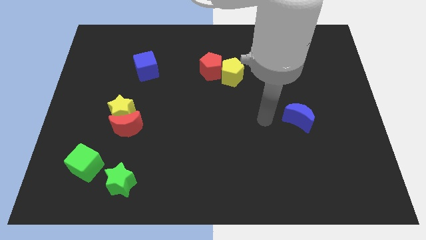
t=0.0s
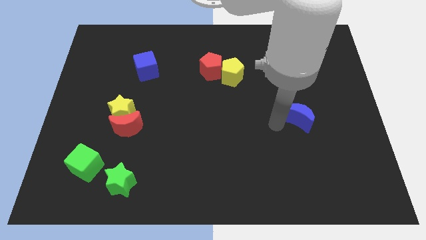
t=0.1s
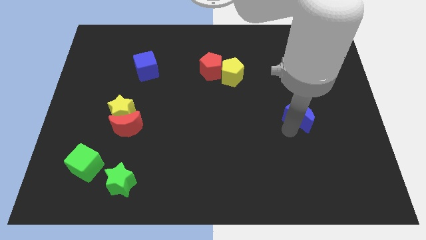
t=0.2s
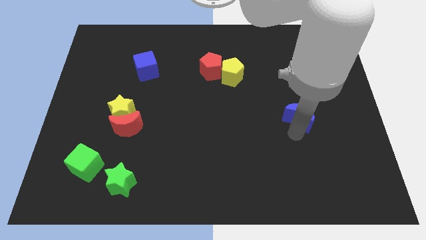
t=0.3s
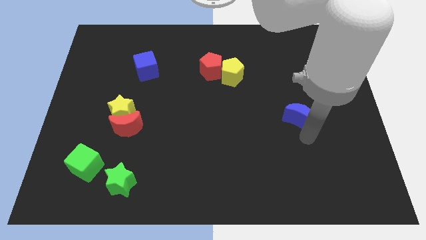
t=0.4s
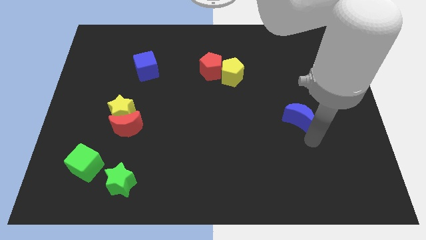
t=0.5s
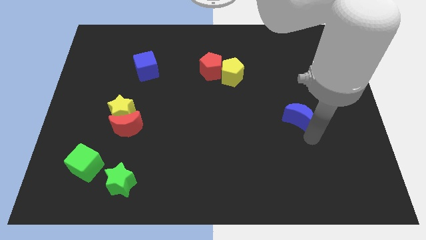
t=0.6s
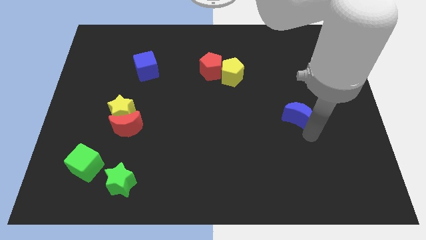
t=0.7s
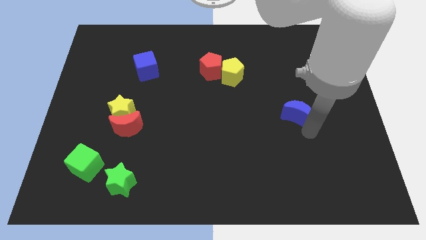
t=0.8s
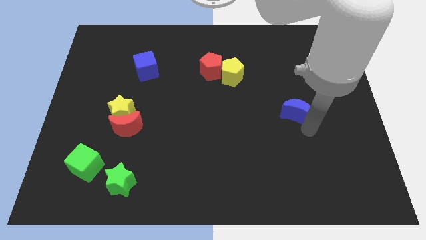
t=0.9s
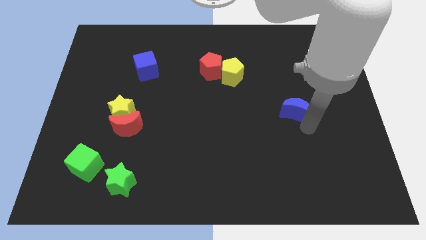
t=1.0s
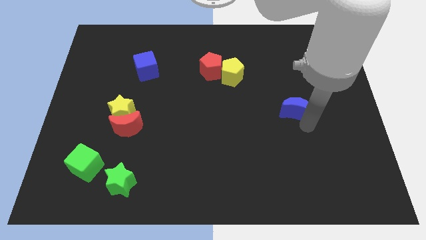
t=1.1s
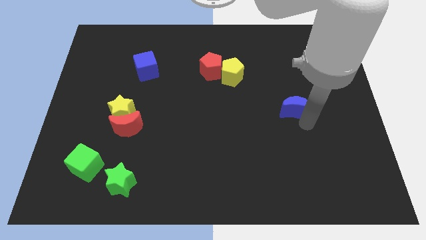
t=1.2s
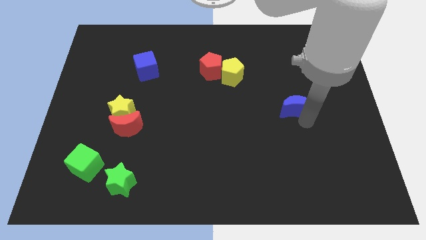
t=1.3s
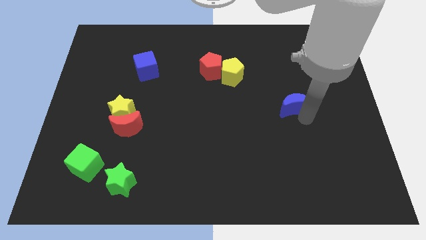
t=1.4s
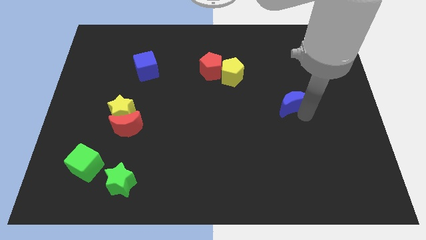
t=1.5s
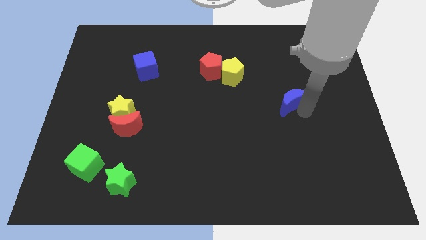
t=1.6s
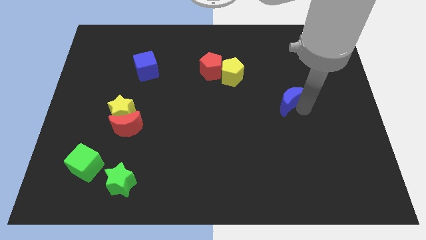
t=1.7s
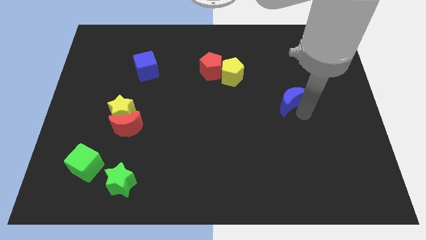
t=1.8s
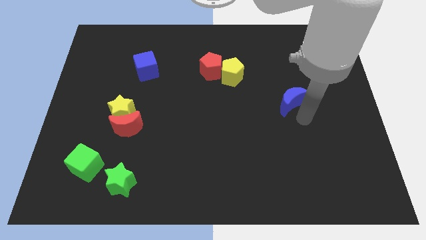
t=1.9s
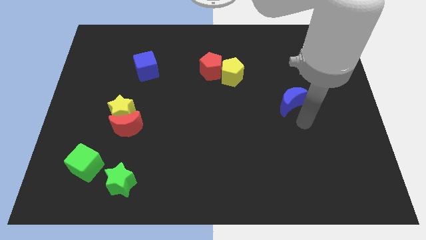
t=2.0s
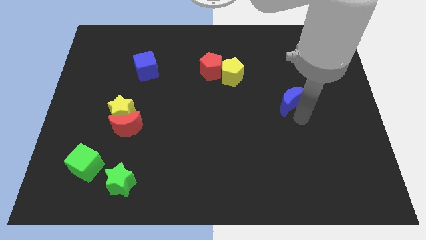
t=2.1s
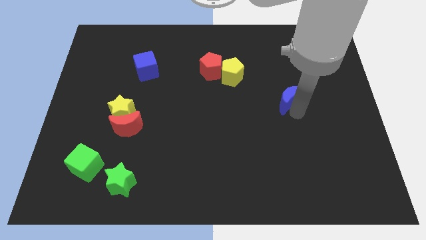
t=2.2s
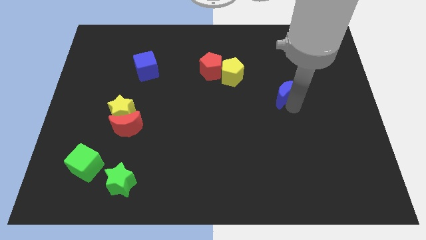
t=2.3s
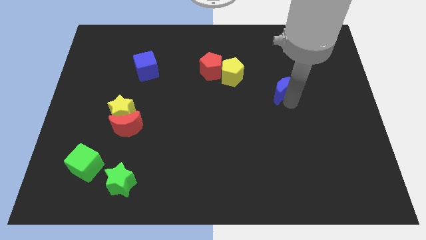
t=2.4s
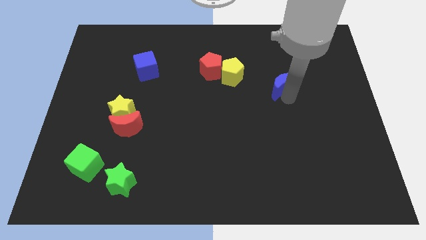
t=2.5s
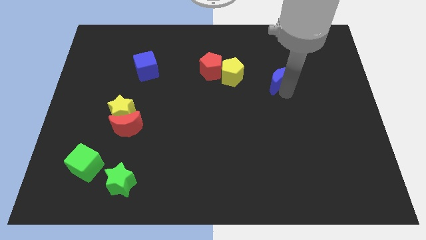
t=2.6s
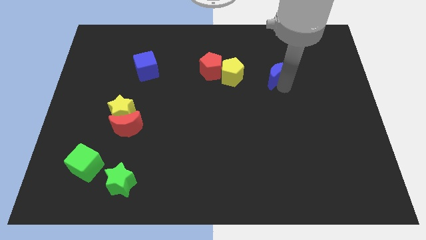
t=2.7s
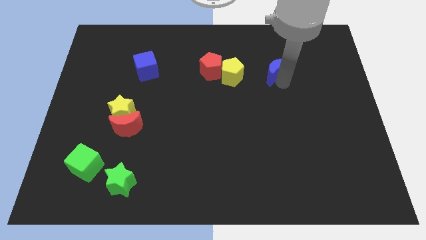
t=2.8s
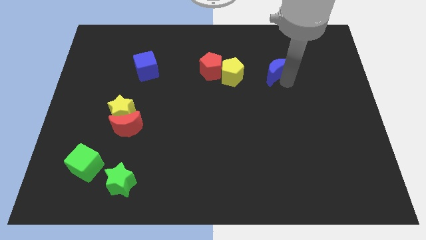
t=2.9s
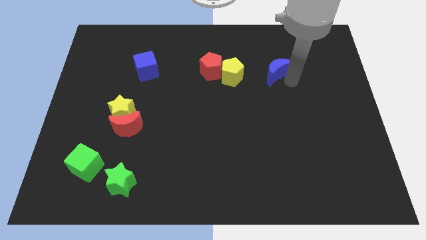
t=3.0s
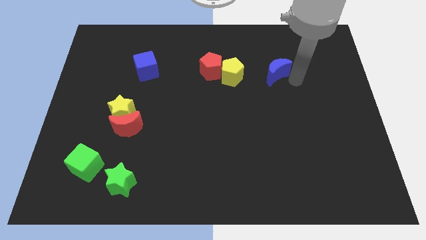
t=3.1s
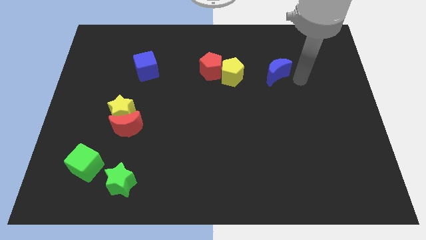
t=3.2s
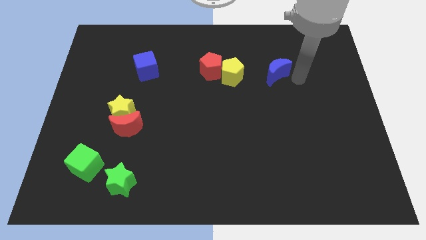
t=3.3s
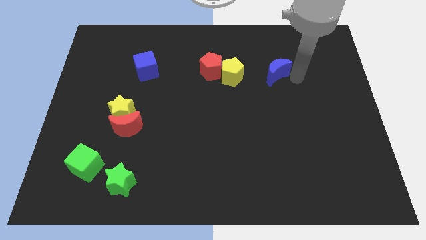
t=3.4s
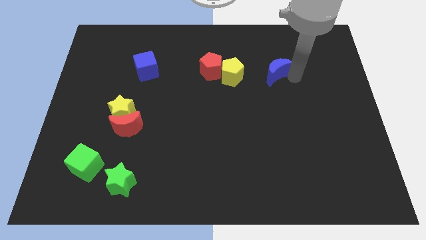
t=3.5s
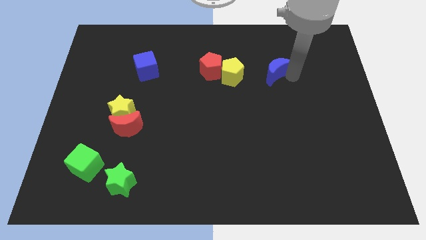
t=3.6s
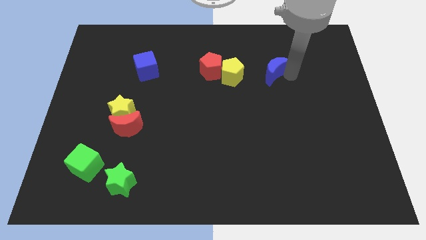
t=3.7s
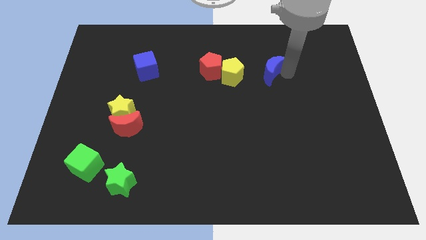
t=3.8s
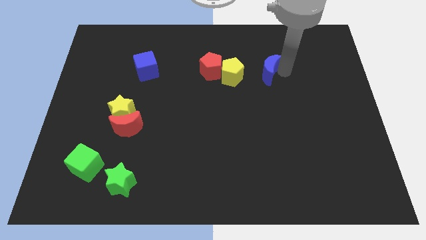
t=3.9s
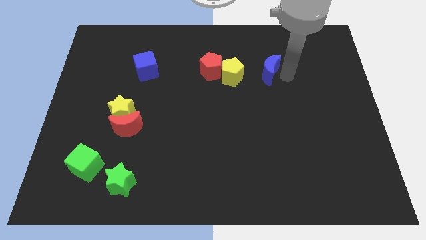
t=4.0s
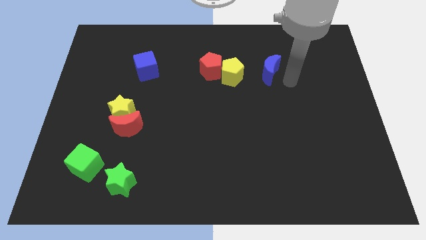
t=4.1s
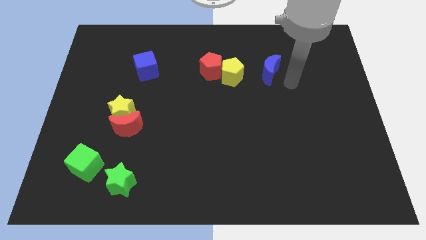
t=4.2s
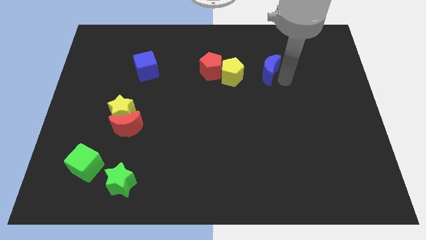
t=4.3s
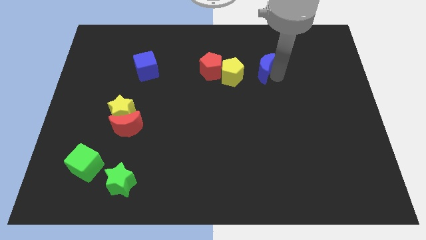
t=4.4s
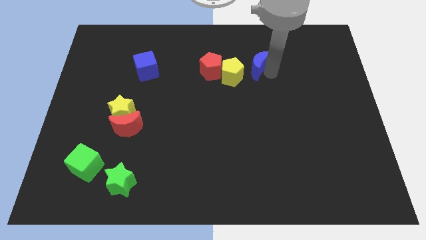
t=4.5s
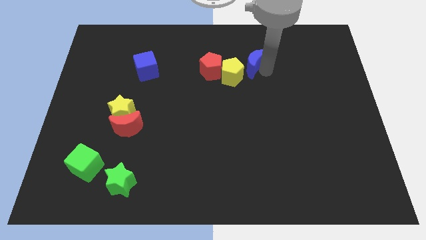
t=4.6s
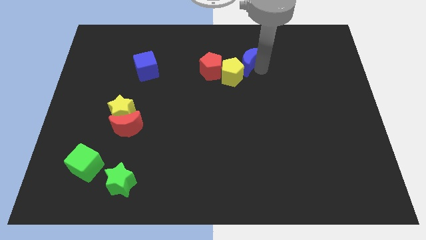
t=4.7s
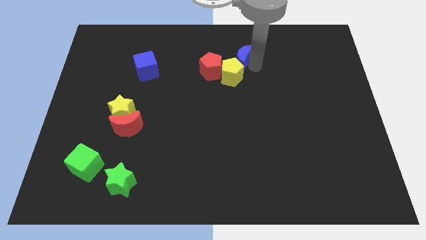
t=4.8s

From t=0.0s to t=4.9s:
move the blue moon diagonally up and to the right of the red pentagon

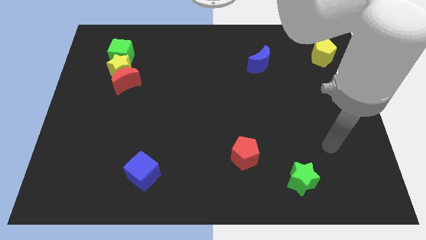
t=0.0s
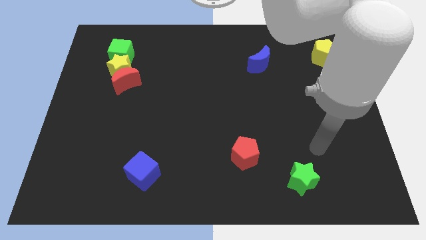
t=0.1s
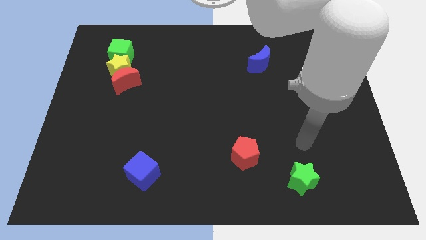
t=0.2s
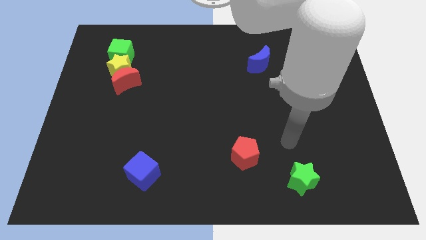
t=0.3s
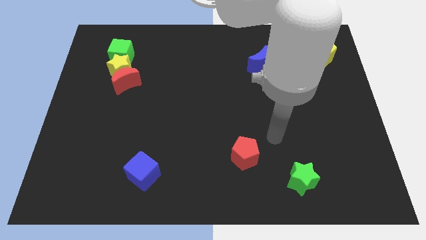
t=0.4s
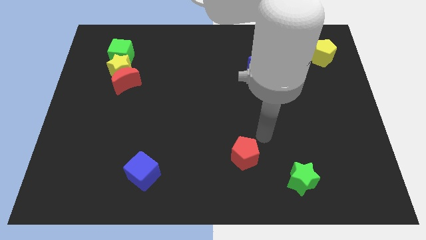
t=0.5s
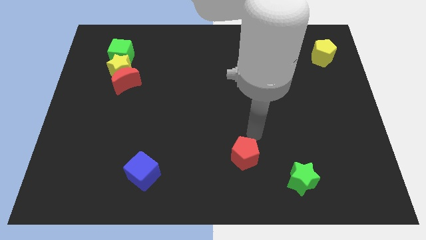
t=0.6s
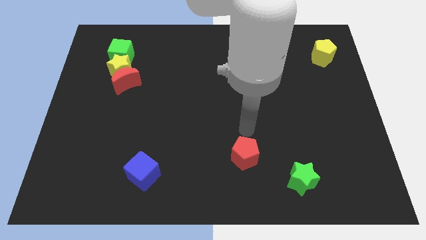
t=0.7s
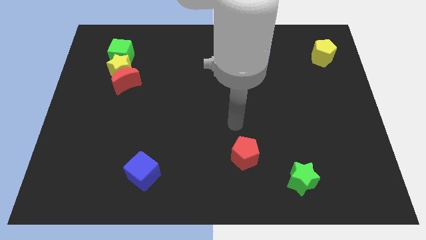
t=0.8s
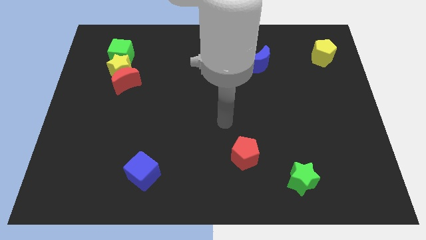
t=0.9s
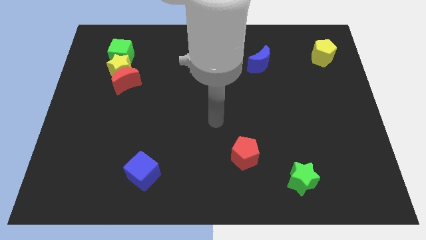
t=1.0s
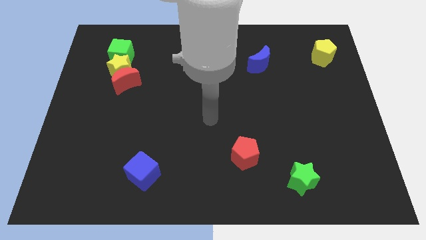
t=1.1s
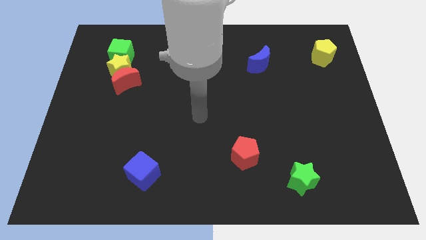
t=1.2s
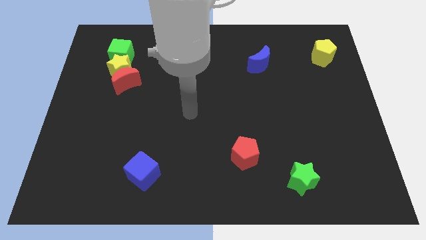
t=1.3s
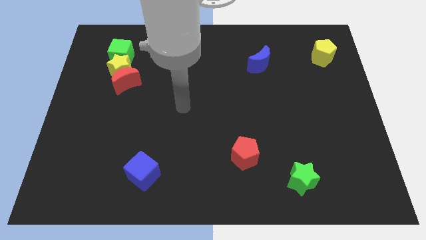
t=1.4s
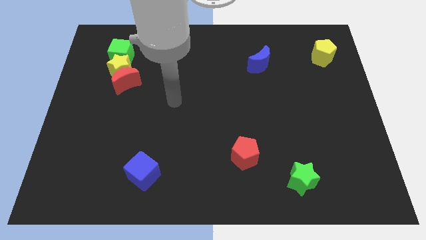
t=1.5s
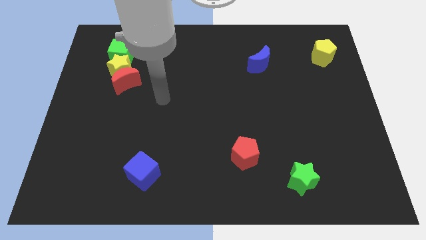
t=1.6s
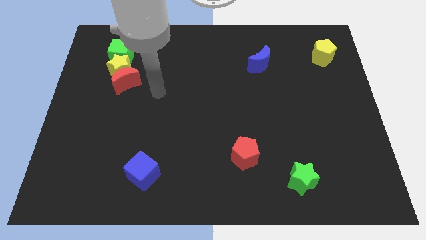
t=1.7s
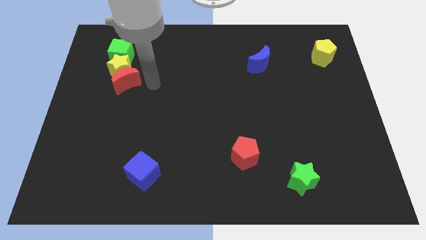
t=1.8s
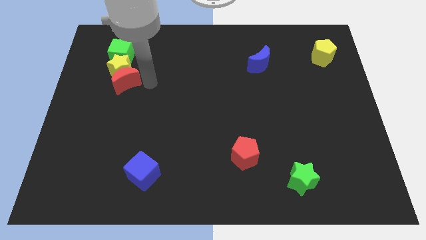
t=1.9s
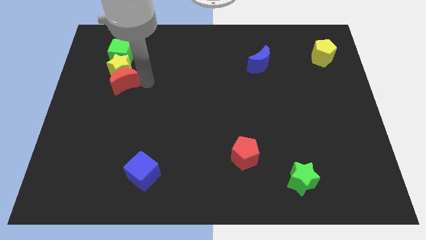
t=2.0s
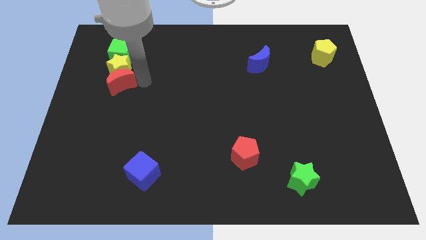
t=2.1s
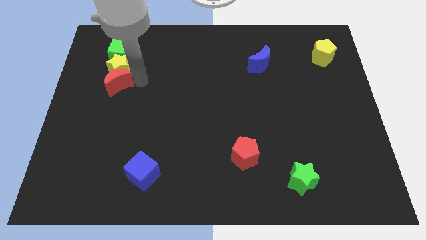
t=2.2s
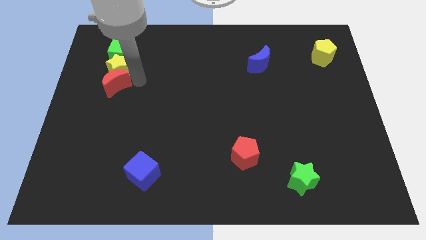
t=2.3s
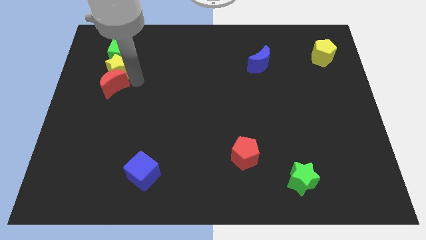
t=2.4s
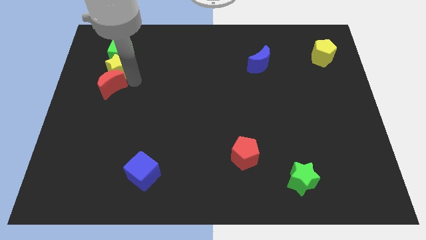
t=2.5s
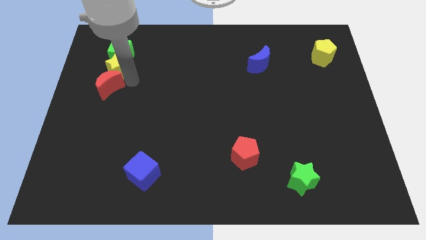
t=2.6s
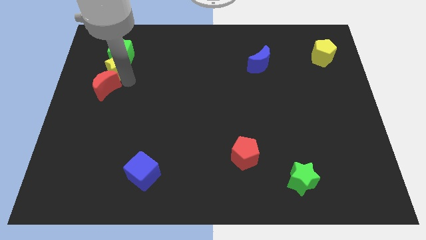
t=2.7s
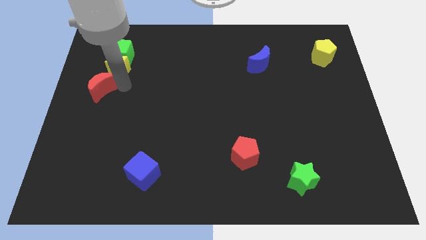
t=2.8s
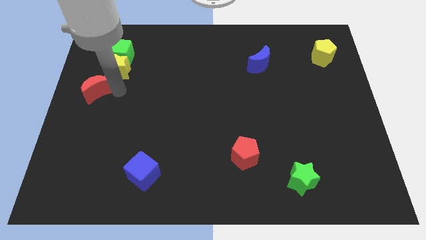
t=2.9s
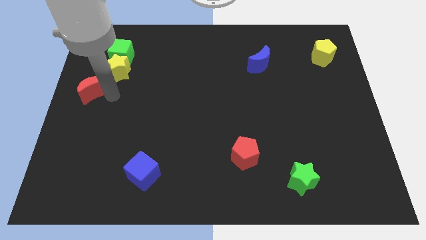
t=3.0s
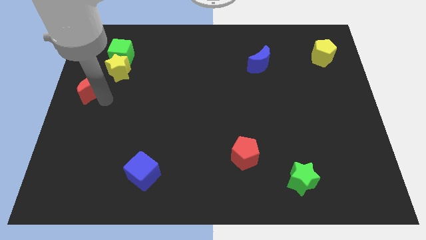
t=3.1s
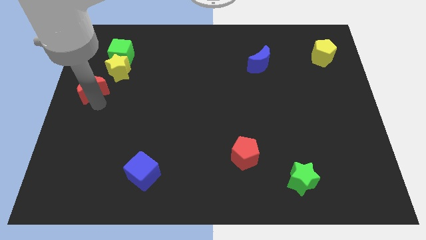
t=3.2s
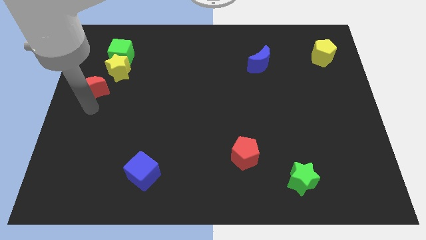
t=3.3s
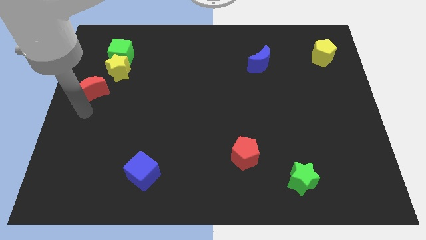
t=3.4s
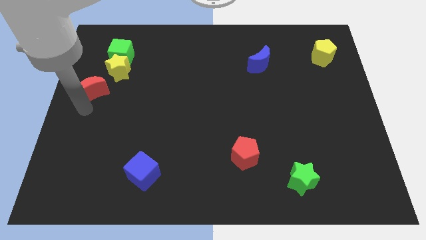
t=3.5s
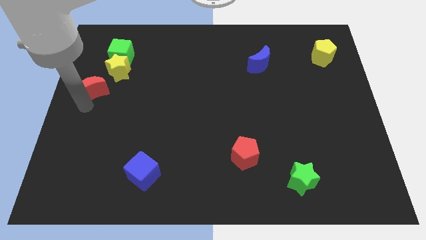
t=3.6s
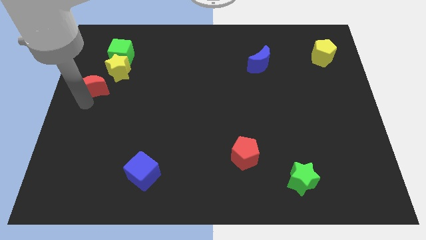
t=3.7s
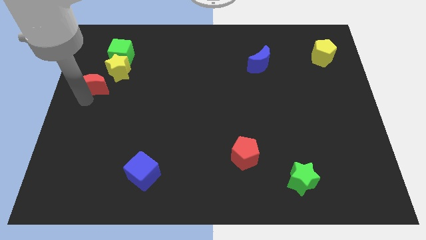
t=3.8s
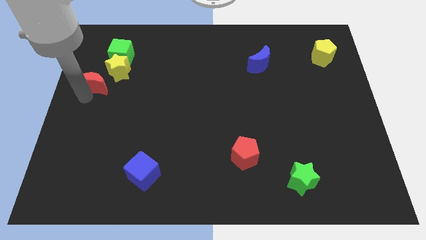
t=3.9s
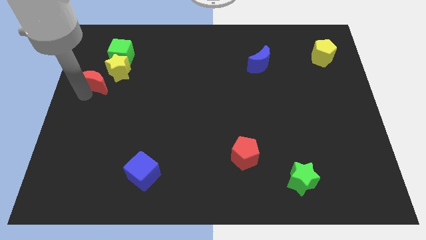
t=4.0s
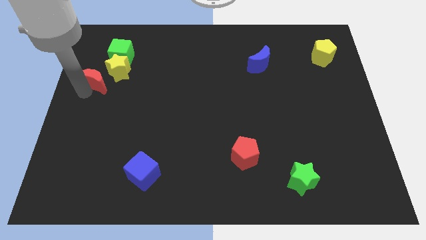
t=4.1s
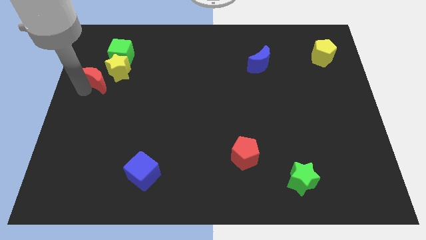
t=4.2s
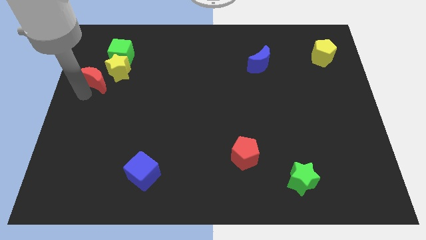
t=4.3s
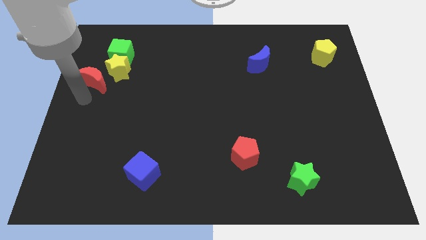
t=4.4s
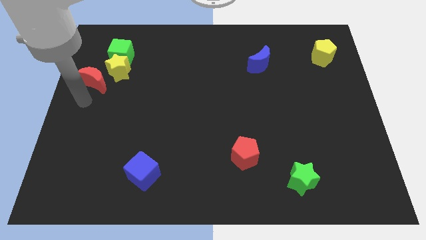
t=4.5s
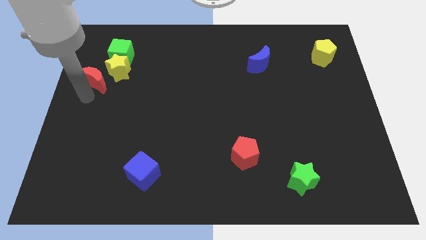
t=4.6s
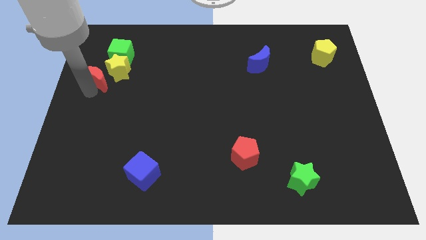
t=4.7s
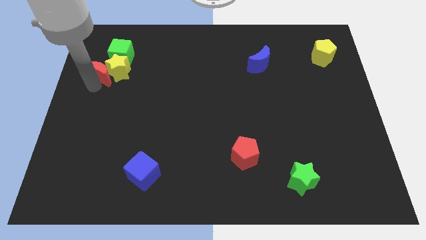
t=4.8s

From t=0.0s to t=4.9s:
put the red moon diagonally up and to the left of the yellow star
